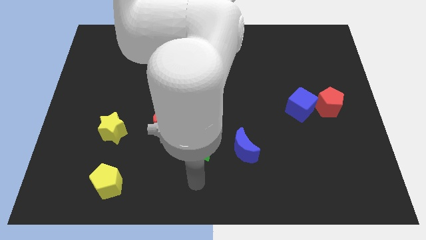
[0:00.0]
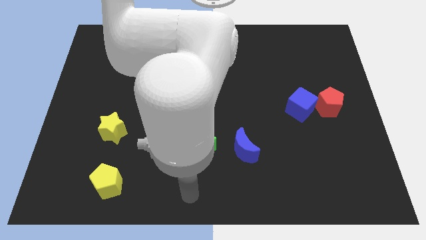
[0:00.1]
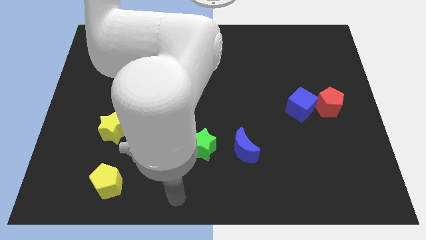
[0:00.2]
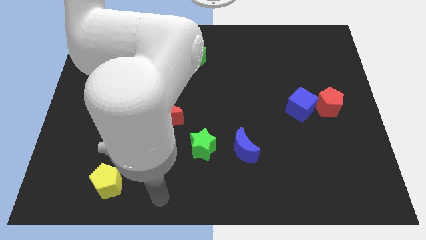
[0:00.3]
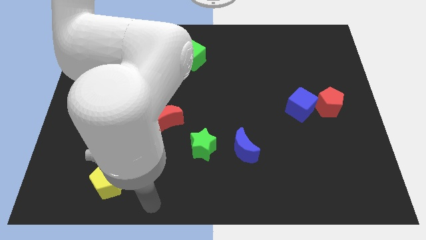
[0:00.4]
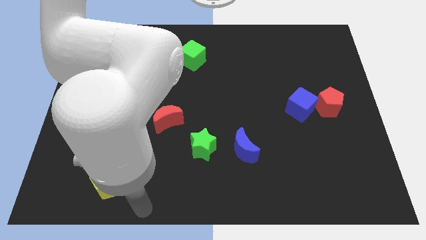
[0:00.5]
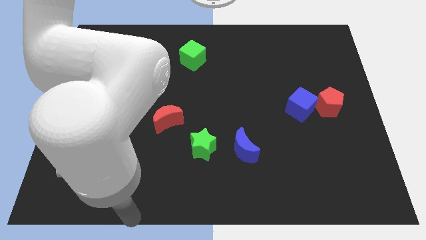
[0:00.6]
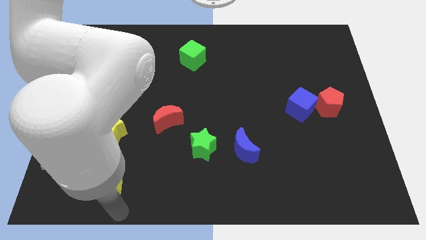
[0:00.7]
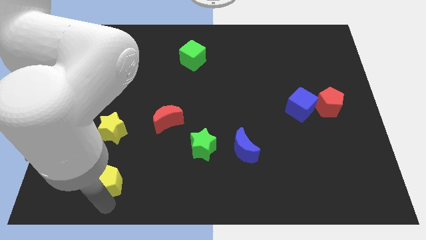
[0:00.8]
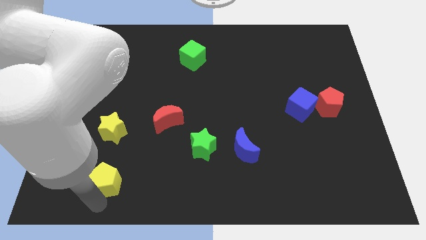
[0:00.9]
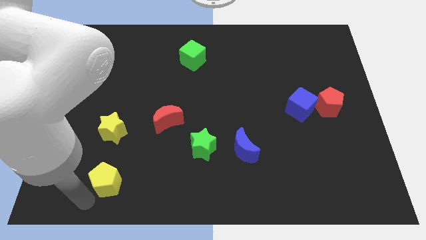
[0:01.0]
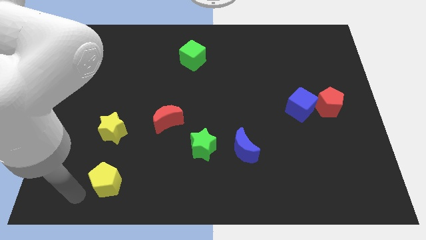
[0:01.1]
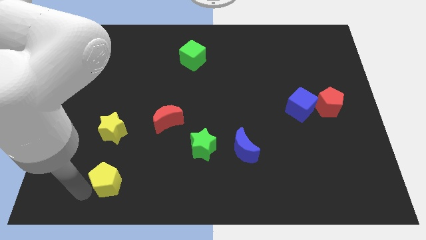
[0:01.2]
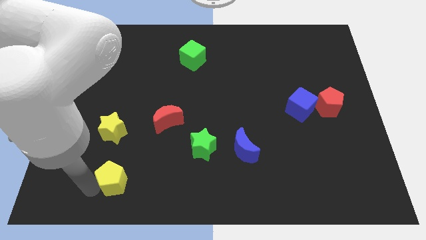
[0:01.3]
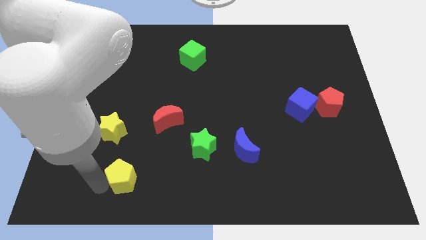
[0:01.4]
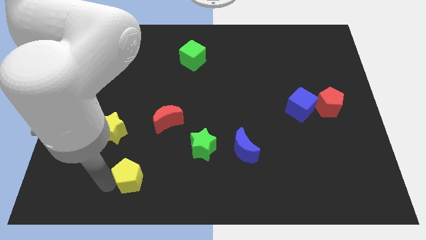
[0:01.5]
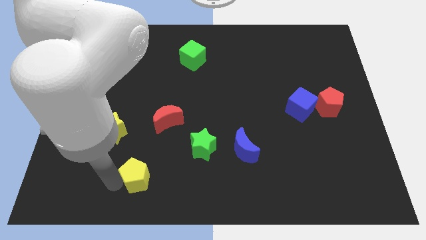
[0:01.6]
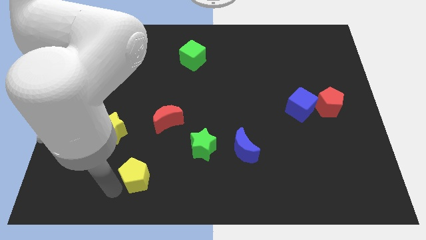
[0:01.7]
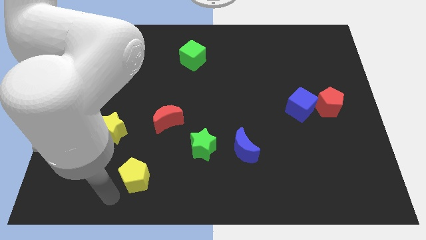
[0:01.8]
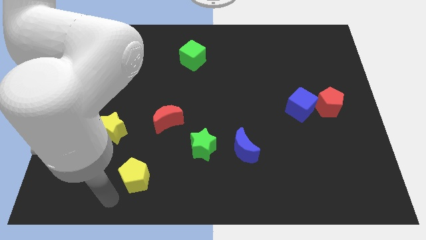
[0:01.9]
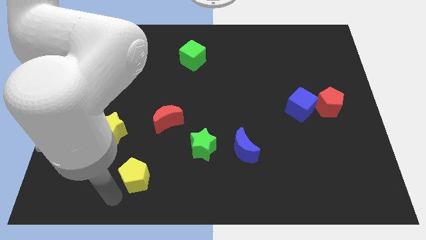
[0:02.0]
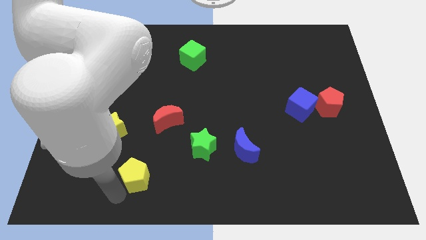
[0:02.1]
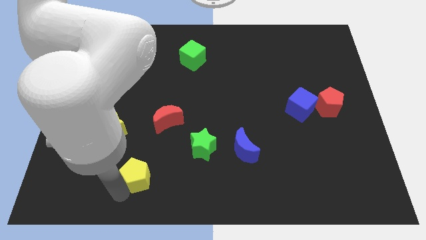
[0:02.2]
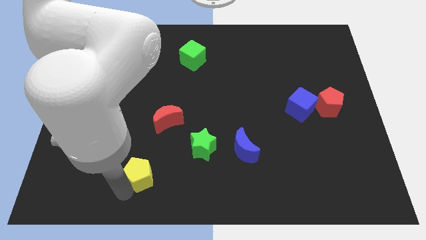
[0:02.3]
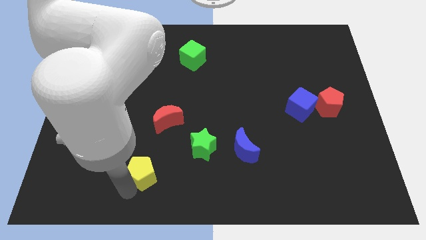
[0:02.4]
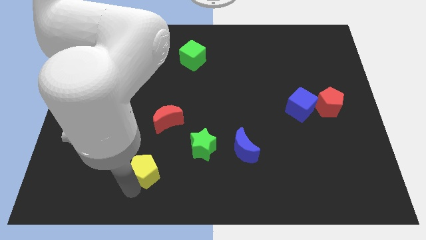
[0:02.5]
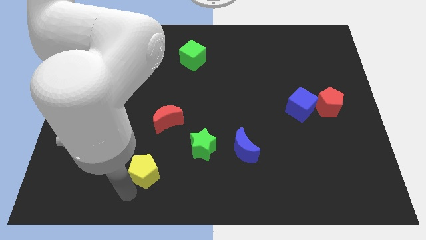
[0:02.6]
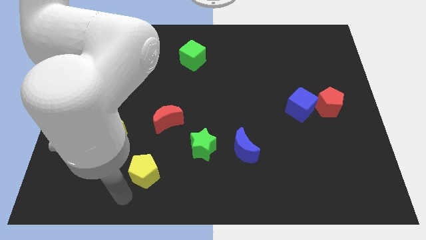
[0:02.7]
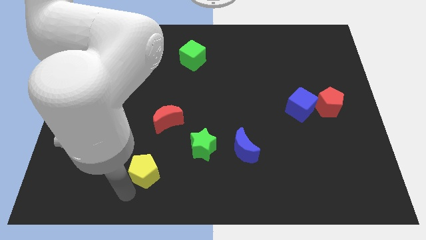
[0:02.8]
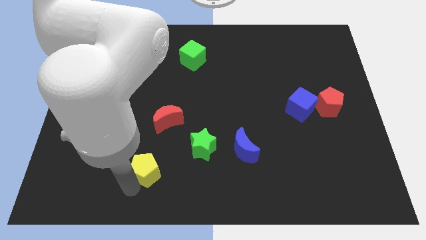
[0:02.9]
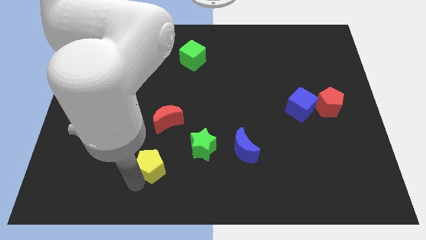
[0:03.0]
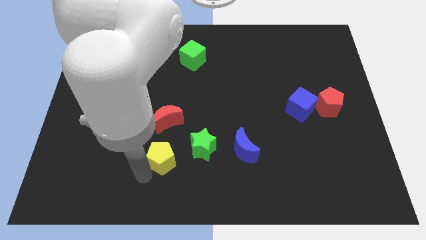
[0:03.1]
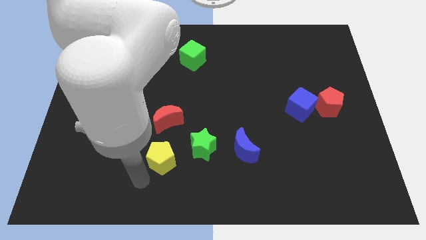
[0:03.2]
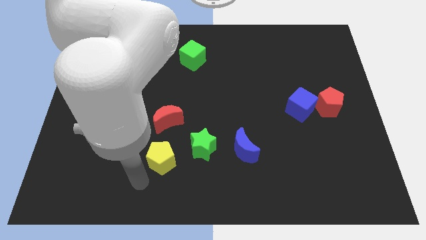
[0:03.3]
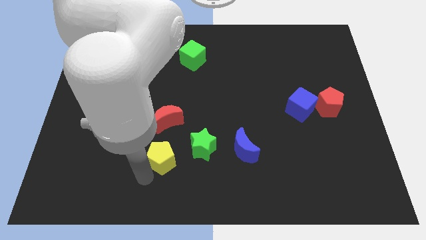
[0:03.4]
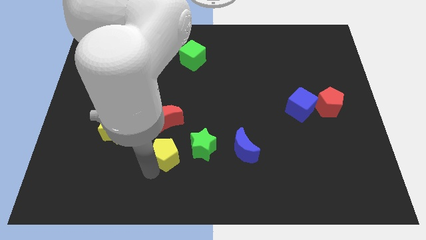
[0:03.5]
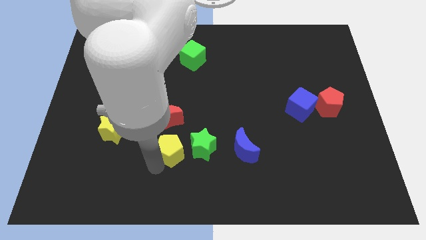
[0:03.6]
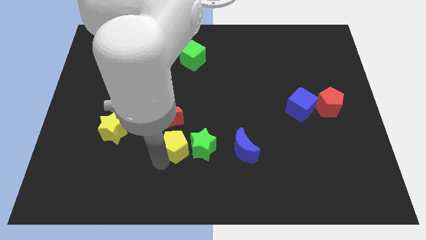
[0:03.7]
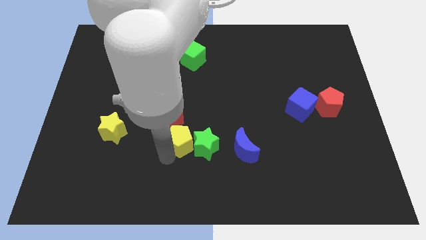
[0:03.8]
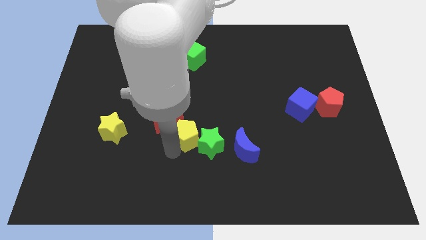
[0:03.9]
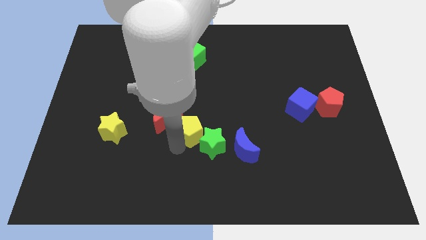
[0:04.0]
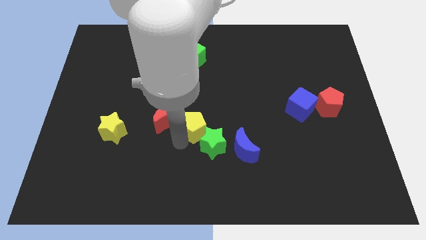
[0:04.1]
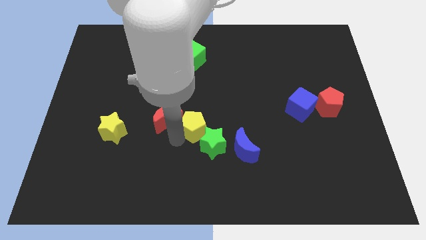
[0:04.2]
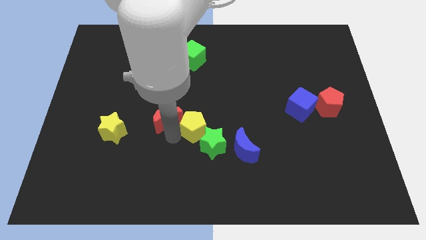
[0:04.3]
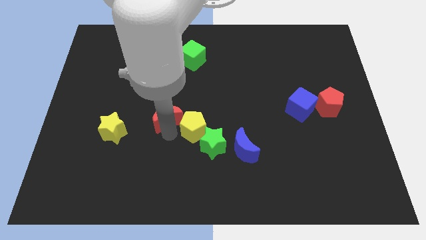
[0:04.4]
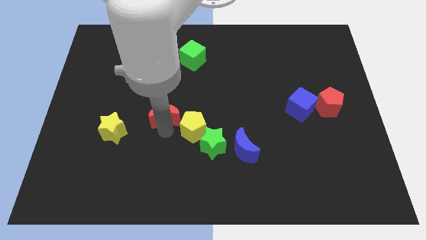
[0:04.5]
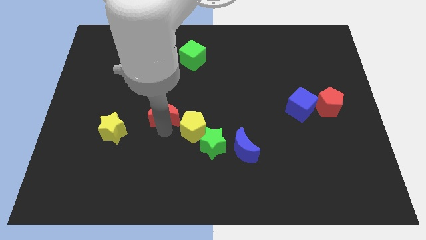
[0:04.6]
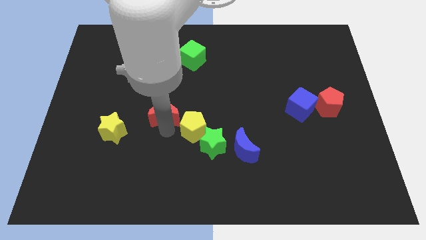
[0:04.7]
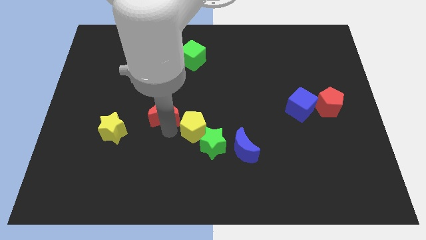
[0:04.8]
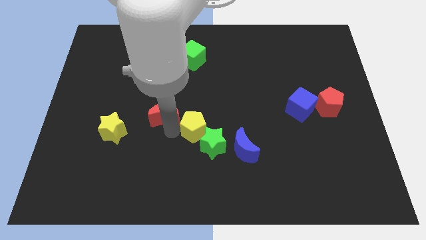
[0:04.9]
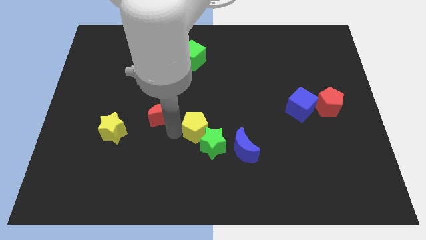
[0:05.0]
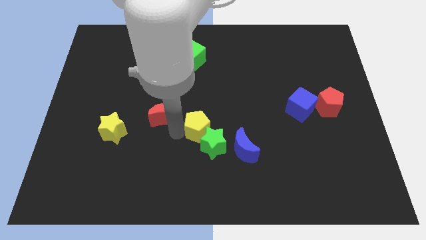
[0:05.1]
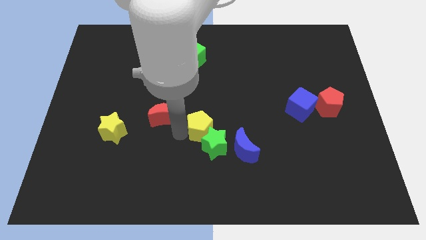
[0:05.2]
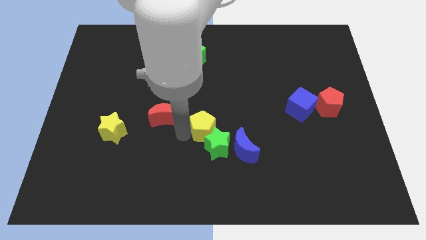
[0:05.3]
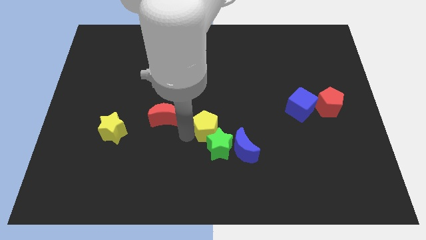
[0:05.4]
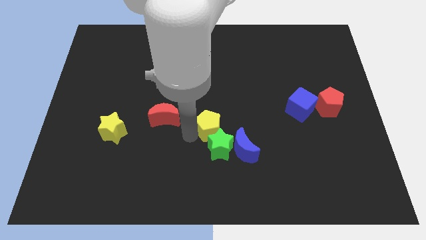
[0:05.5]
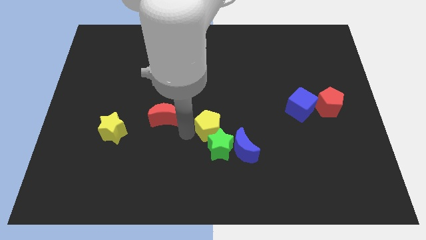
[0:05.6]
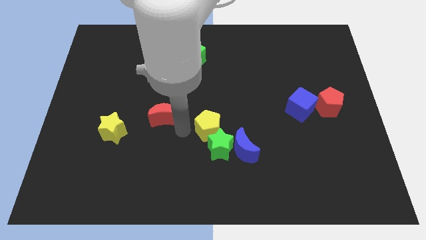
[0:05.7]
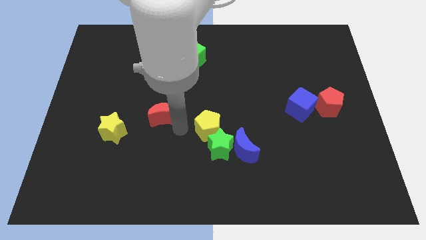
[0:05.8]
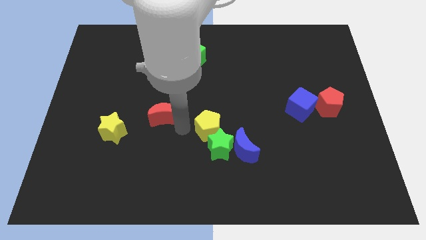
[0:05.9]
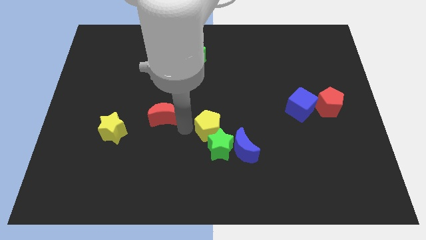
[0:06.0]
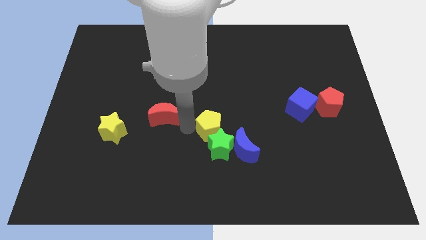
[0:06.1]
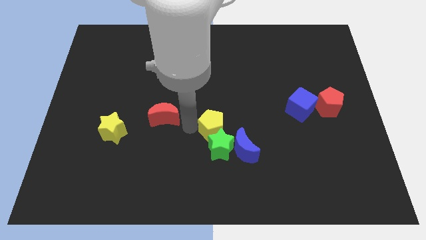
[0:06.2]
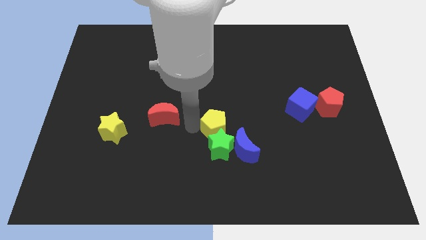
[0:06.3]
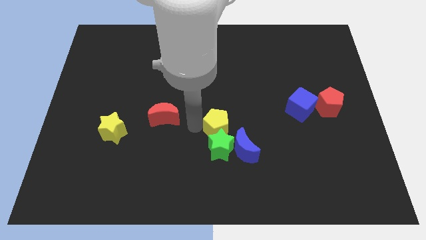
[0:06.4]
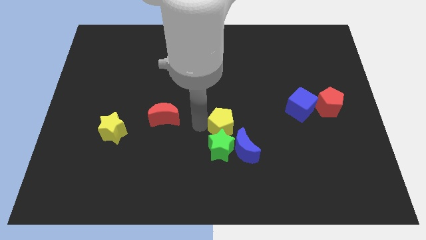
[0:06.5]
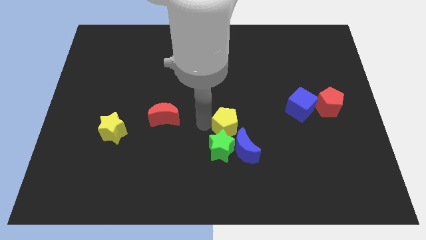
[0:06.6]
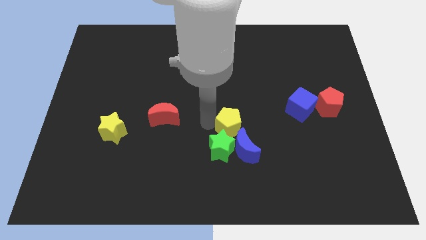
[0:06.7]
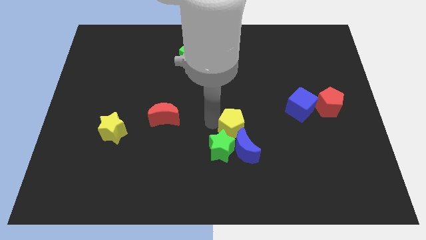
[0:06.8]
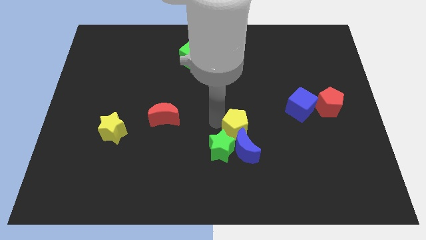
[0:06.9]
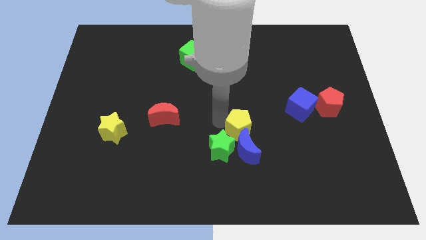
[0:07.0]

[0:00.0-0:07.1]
move the yellow pentagon to the top right side of the blue moon
